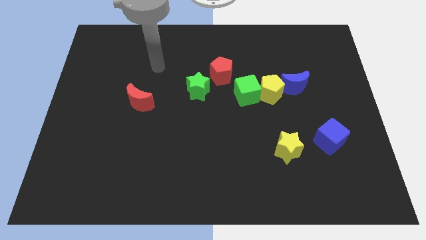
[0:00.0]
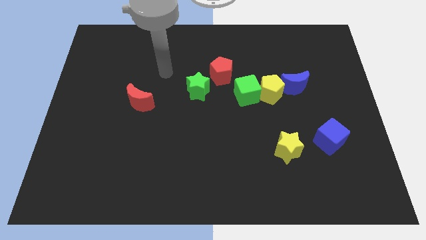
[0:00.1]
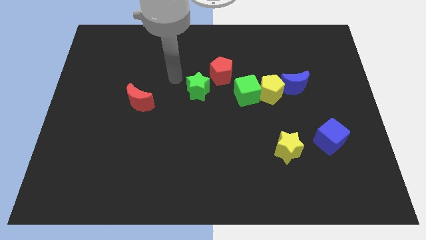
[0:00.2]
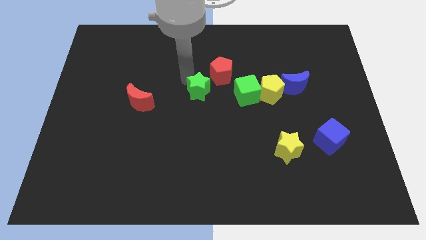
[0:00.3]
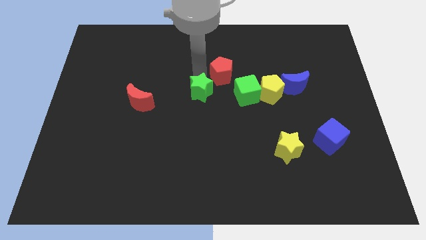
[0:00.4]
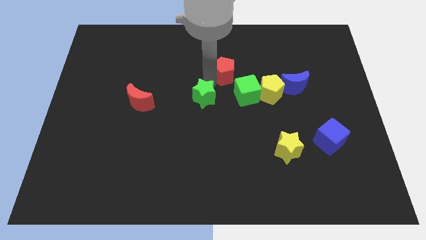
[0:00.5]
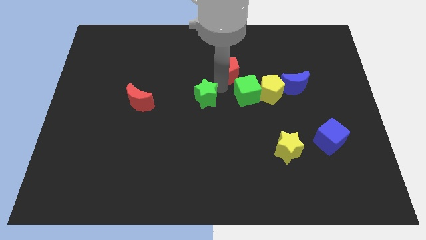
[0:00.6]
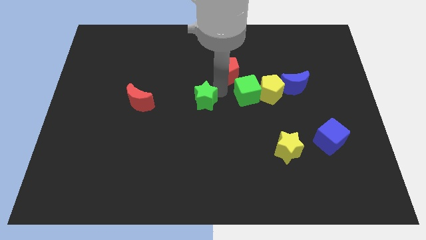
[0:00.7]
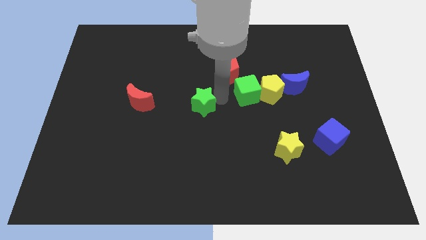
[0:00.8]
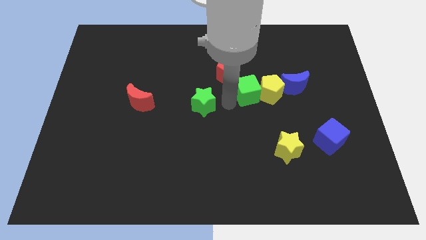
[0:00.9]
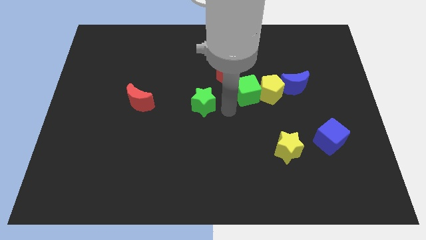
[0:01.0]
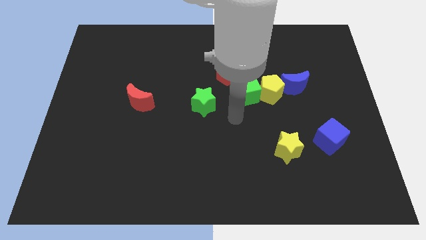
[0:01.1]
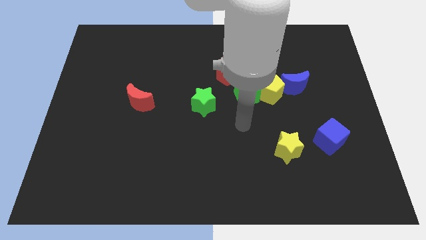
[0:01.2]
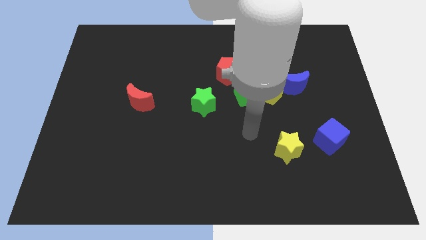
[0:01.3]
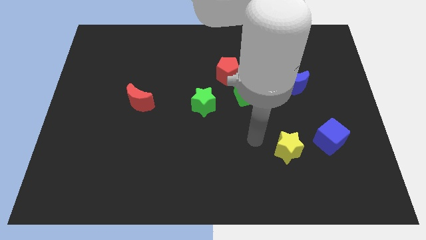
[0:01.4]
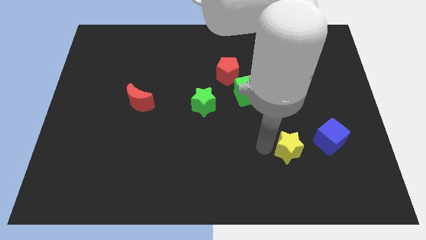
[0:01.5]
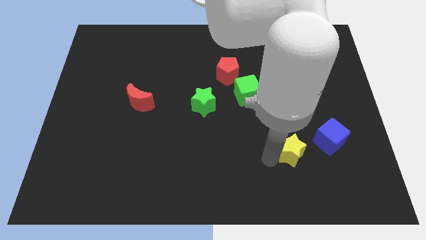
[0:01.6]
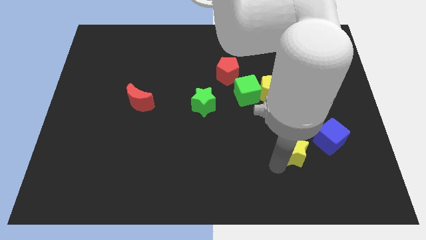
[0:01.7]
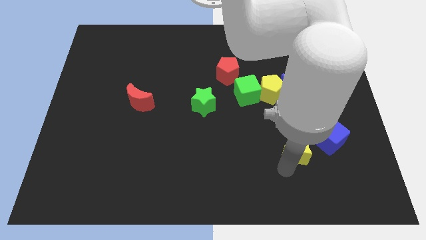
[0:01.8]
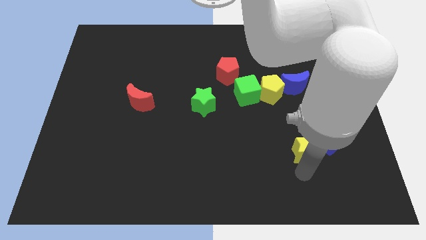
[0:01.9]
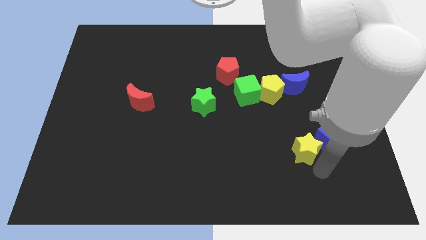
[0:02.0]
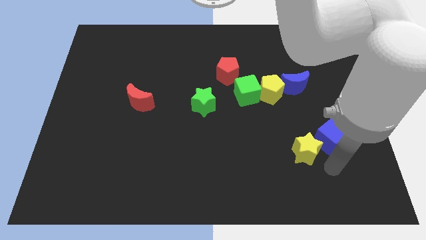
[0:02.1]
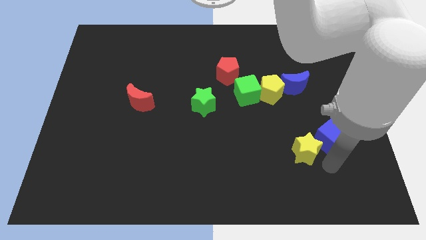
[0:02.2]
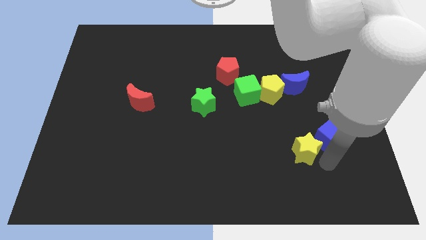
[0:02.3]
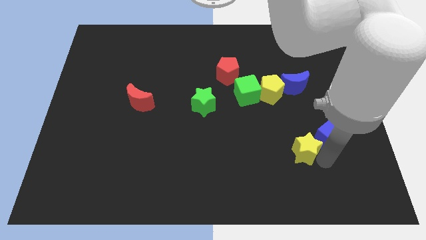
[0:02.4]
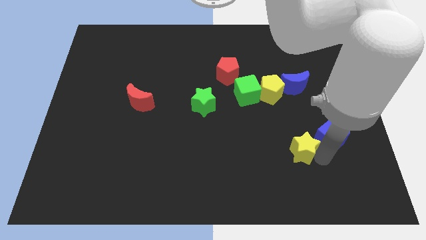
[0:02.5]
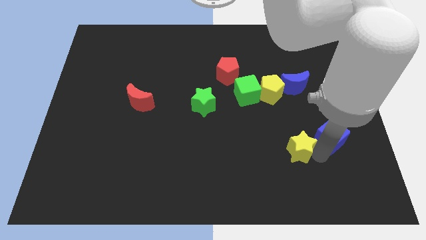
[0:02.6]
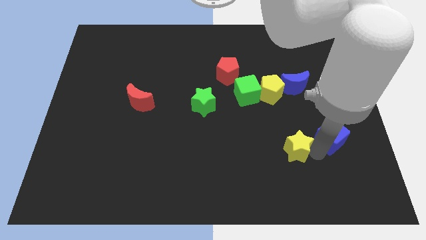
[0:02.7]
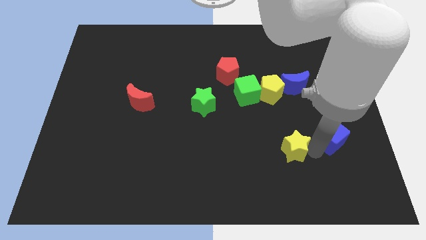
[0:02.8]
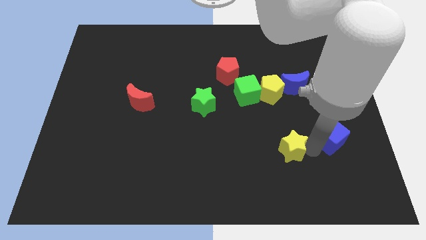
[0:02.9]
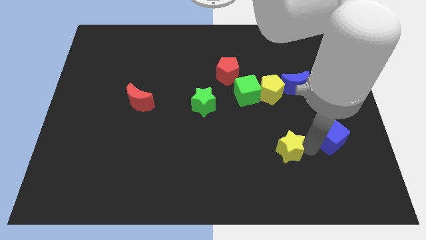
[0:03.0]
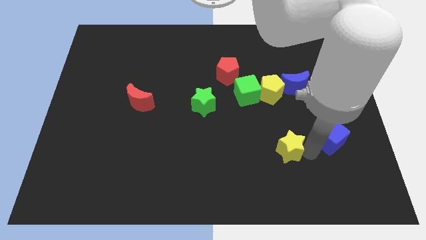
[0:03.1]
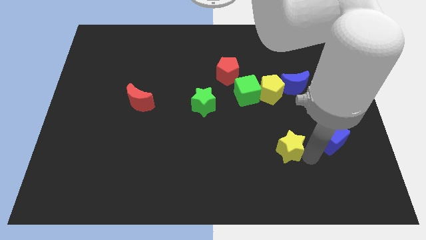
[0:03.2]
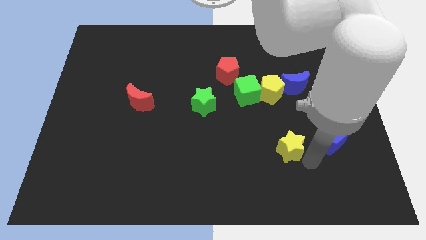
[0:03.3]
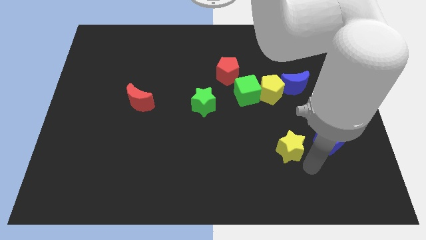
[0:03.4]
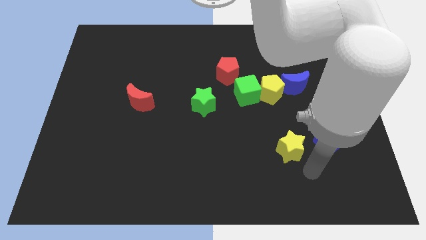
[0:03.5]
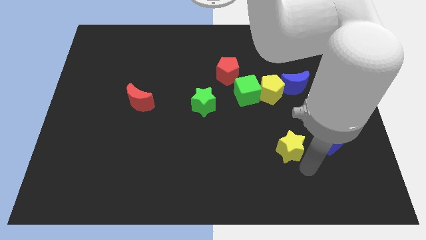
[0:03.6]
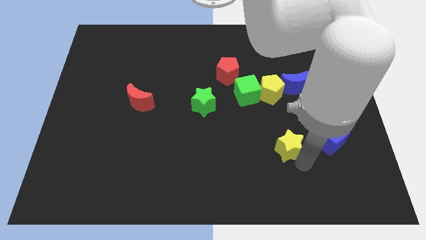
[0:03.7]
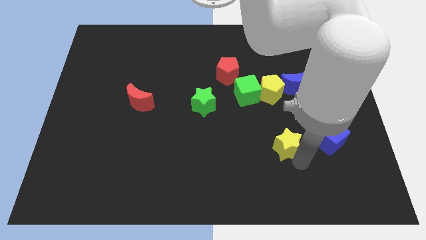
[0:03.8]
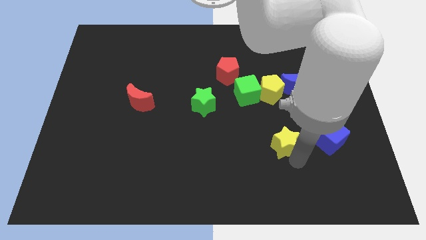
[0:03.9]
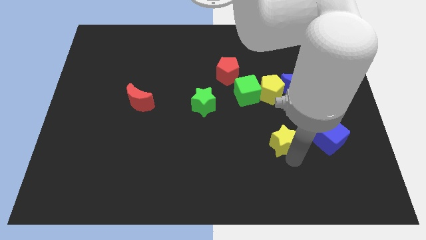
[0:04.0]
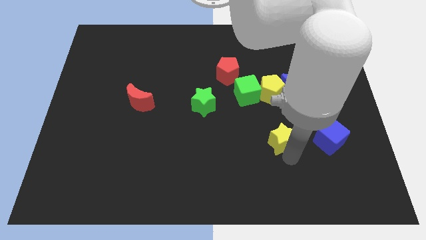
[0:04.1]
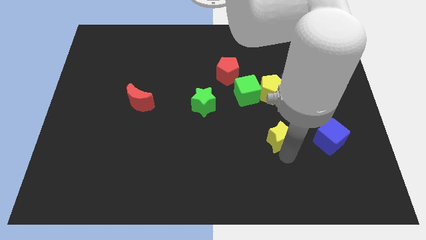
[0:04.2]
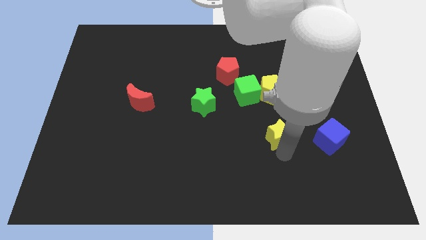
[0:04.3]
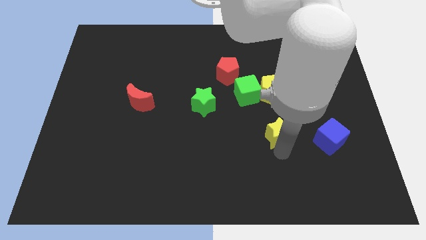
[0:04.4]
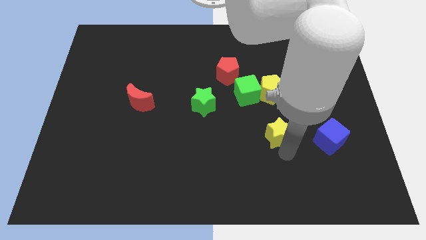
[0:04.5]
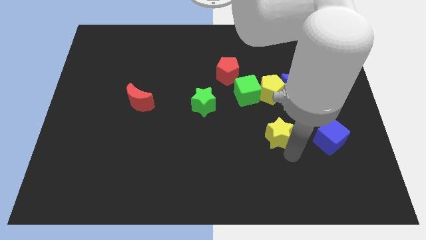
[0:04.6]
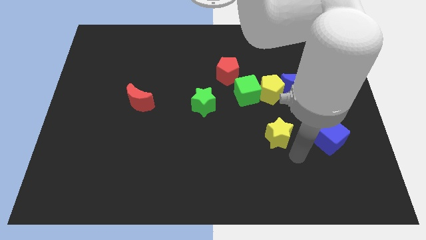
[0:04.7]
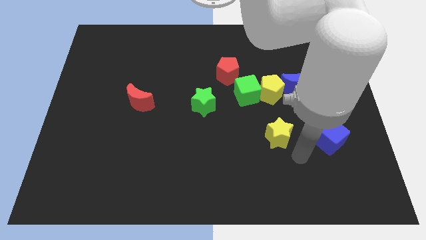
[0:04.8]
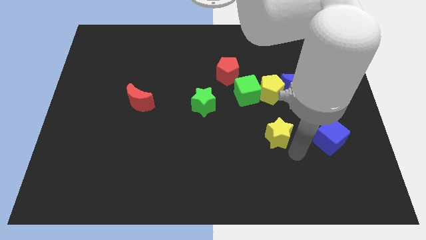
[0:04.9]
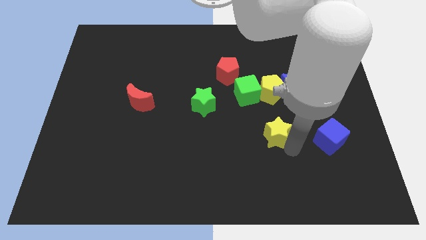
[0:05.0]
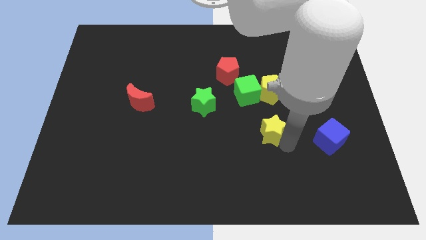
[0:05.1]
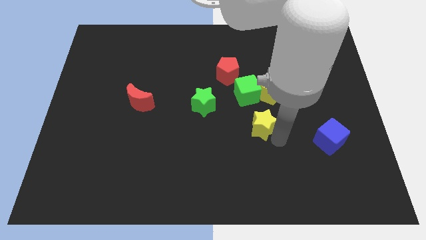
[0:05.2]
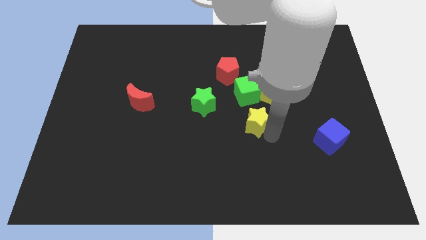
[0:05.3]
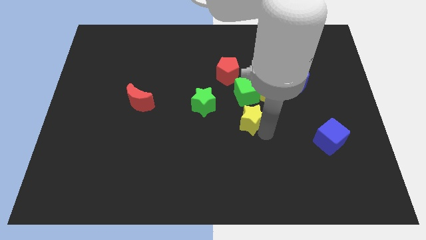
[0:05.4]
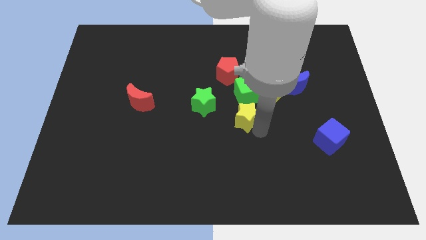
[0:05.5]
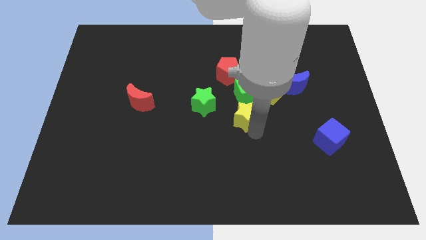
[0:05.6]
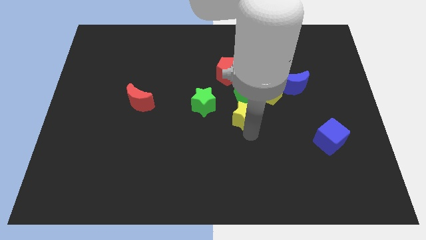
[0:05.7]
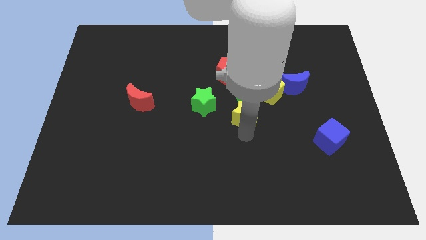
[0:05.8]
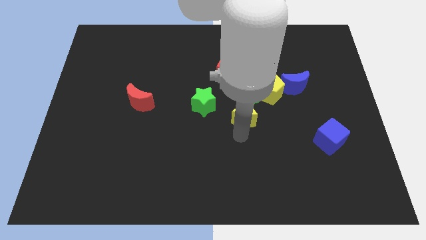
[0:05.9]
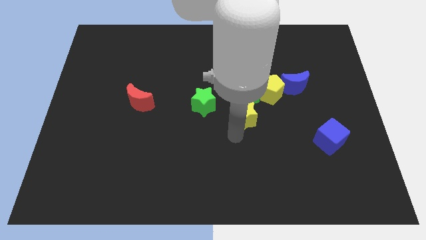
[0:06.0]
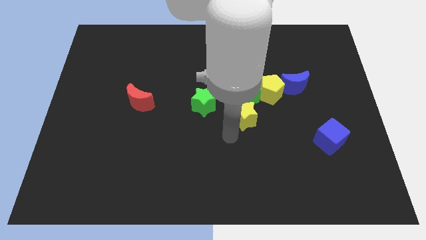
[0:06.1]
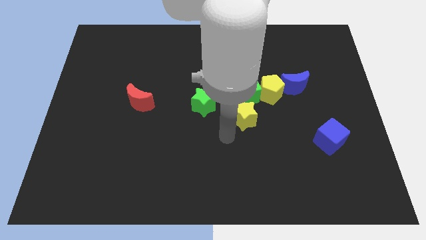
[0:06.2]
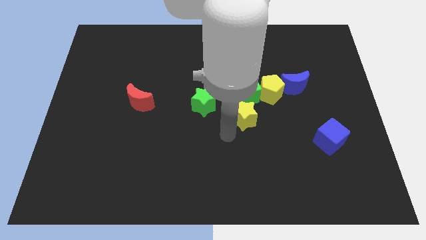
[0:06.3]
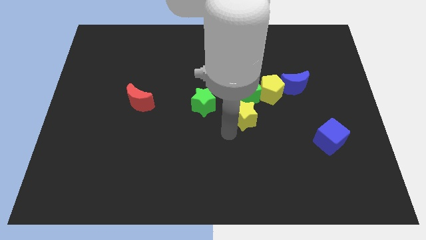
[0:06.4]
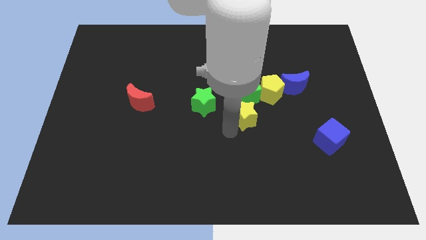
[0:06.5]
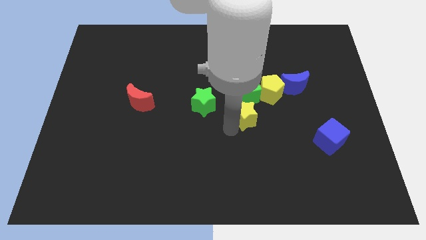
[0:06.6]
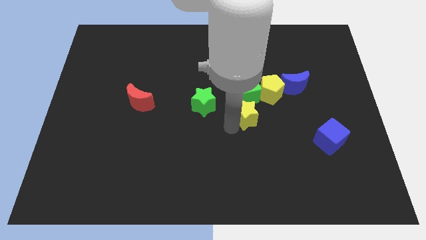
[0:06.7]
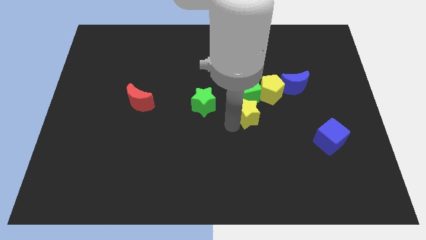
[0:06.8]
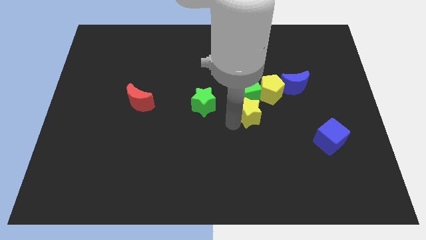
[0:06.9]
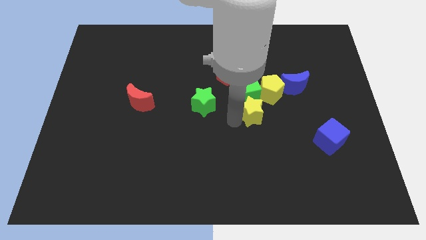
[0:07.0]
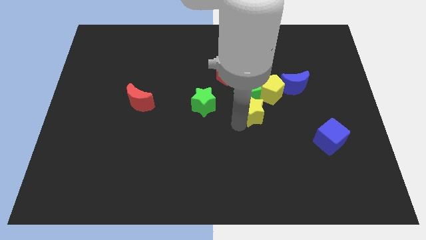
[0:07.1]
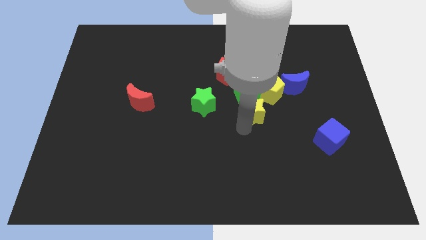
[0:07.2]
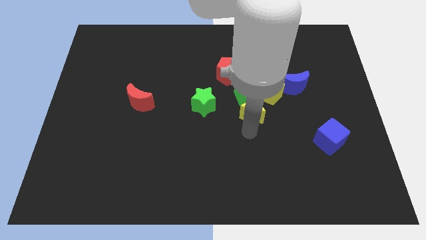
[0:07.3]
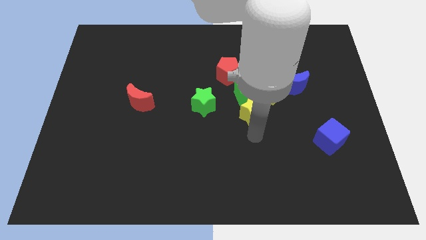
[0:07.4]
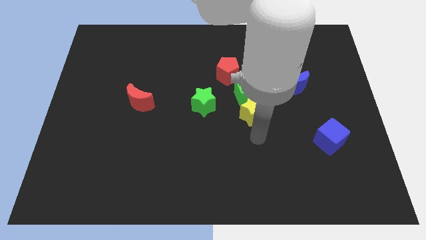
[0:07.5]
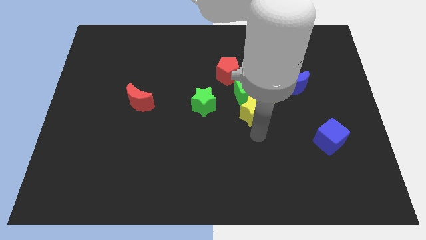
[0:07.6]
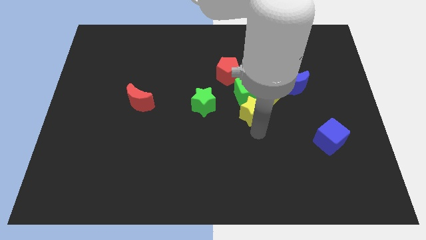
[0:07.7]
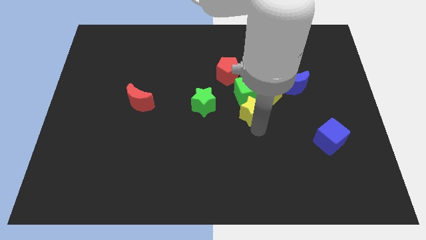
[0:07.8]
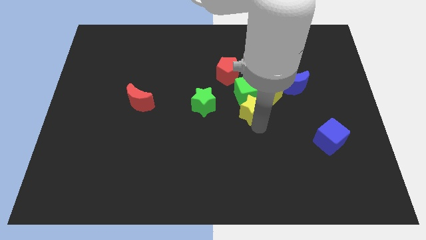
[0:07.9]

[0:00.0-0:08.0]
move the yellow star close to the green cube
